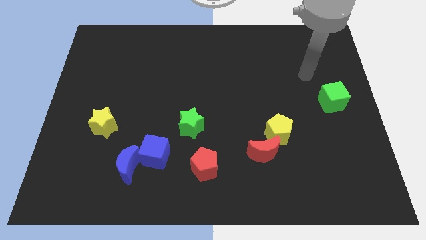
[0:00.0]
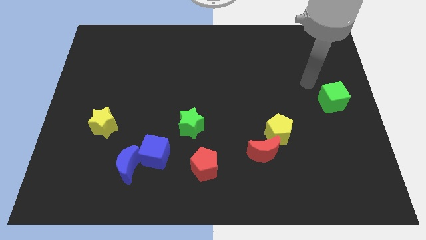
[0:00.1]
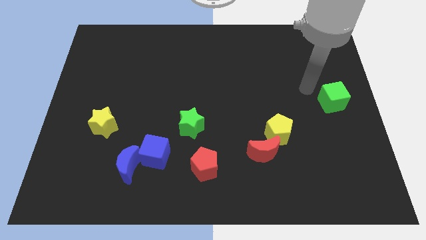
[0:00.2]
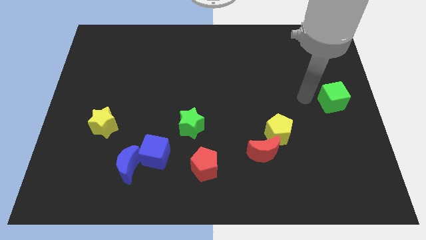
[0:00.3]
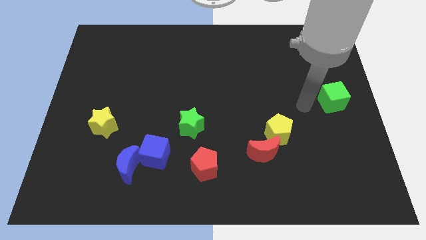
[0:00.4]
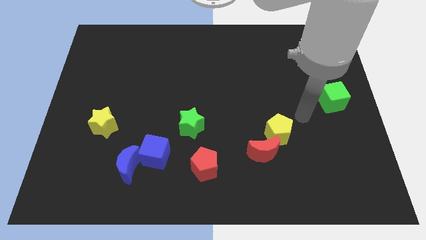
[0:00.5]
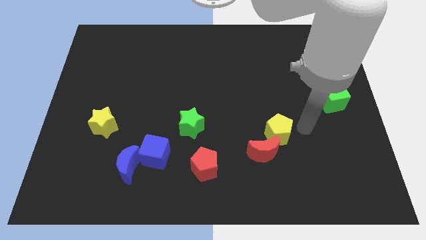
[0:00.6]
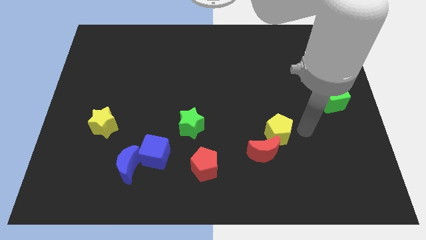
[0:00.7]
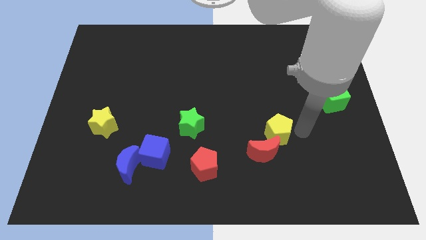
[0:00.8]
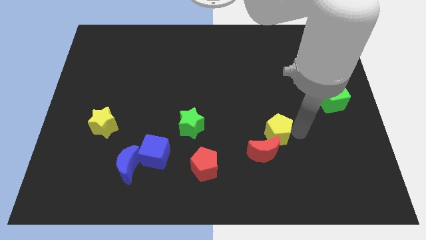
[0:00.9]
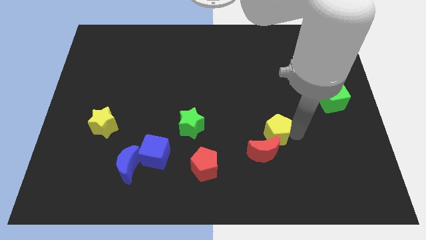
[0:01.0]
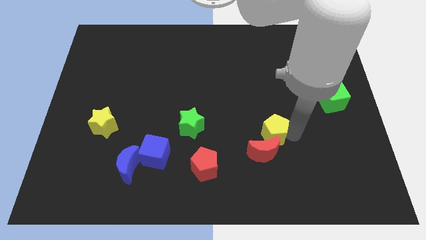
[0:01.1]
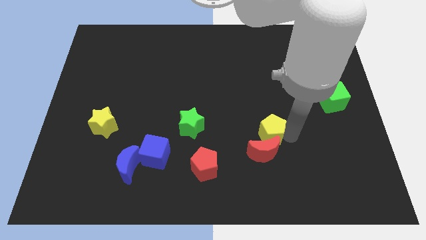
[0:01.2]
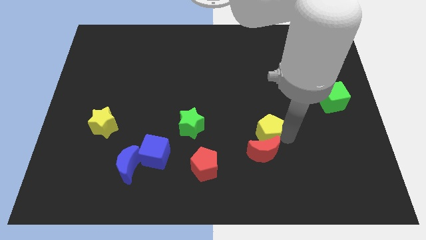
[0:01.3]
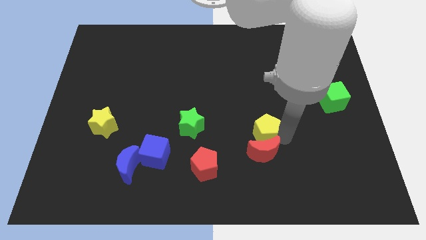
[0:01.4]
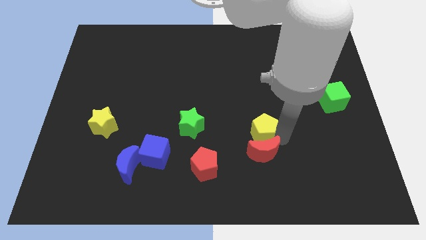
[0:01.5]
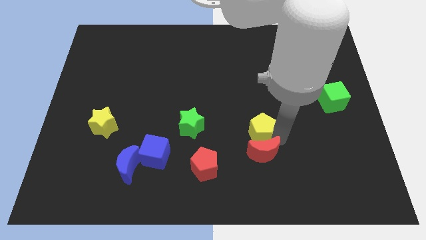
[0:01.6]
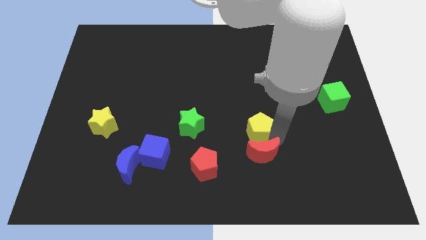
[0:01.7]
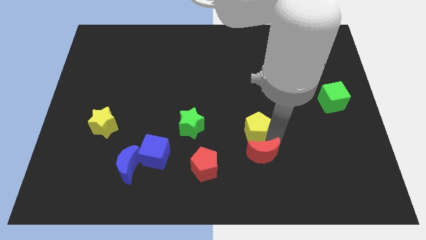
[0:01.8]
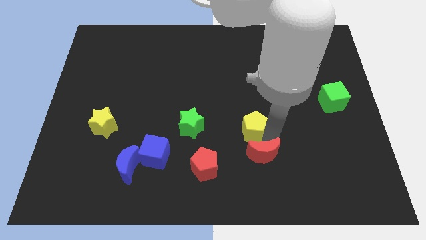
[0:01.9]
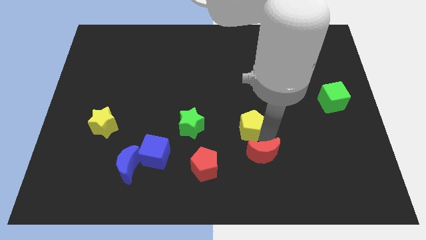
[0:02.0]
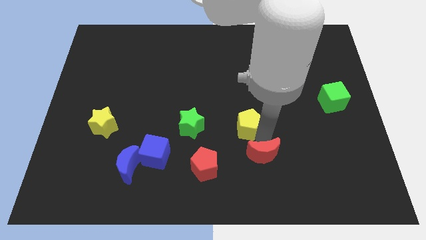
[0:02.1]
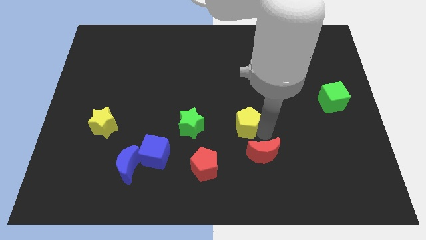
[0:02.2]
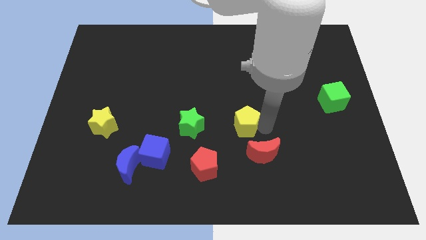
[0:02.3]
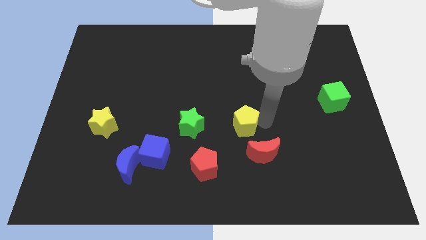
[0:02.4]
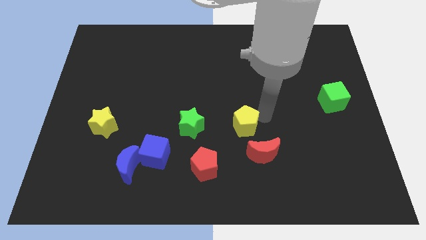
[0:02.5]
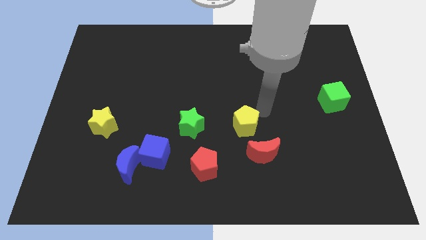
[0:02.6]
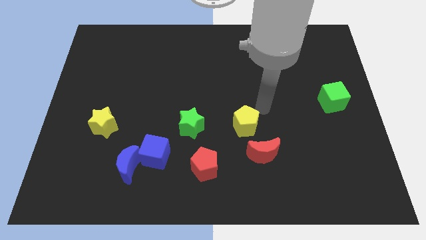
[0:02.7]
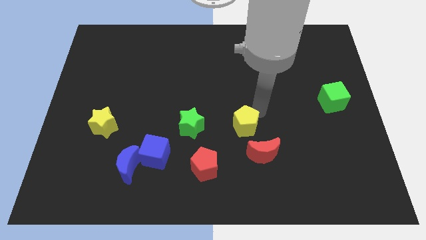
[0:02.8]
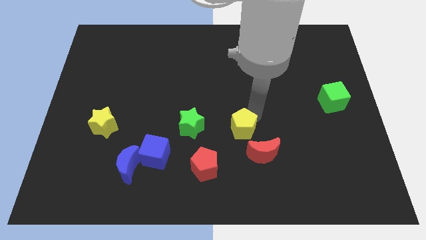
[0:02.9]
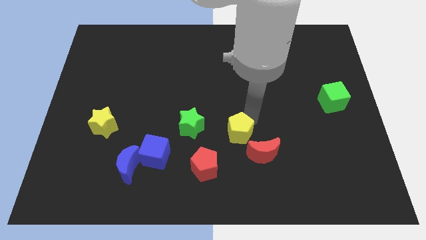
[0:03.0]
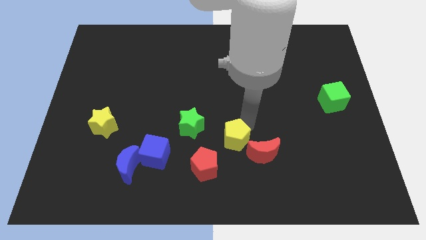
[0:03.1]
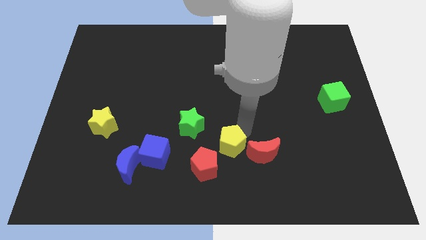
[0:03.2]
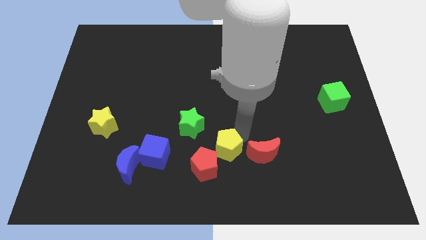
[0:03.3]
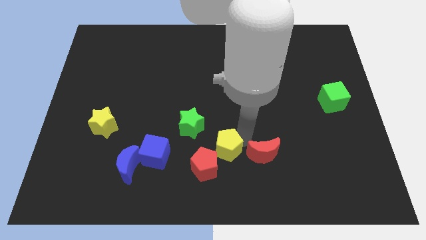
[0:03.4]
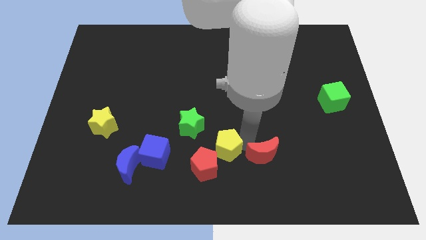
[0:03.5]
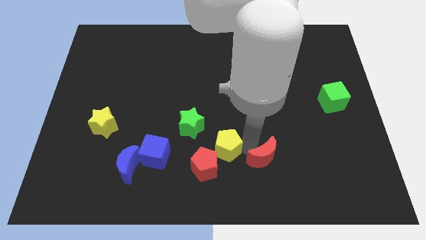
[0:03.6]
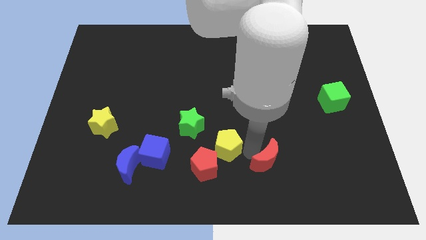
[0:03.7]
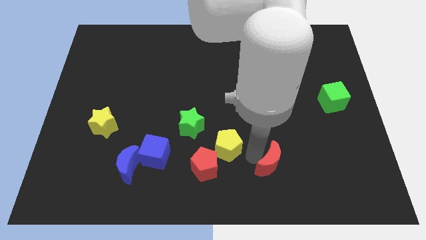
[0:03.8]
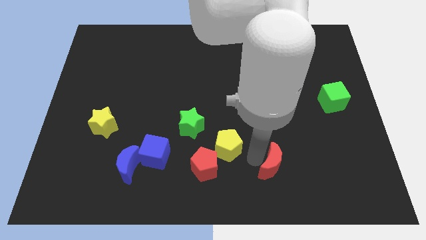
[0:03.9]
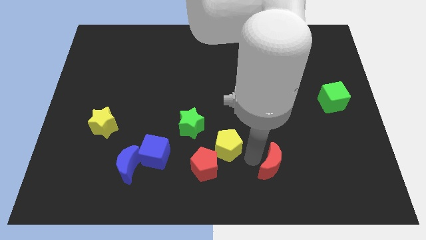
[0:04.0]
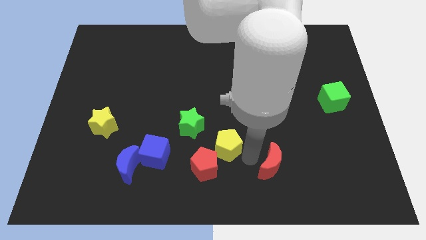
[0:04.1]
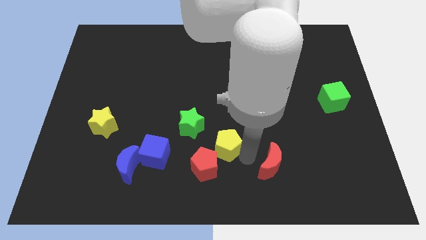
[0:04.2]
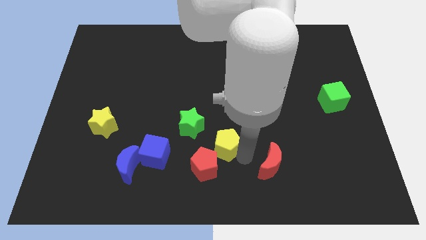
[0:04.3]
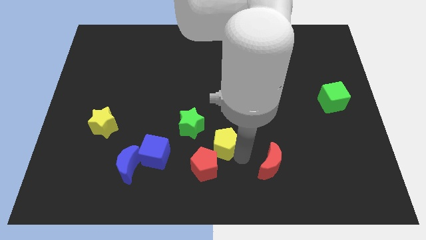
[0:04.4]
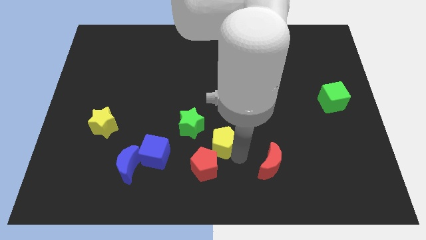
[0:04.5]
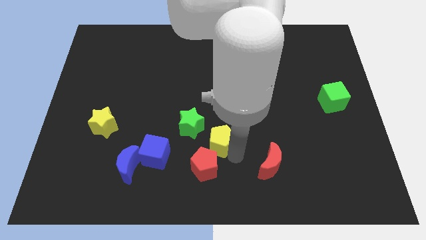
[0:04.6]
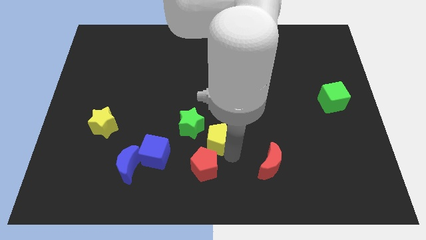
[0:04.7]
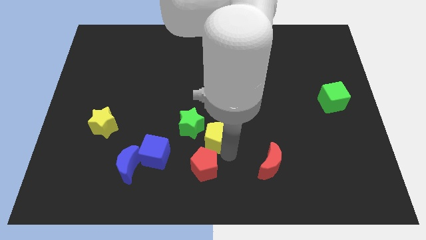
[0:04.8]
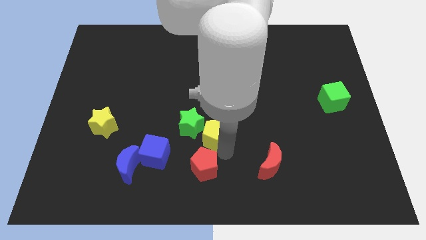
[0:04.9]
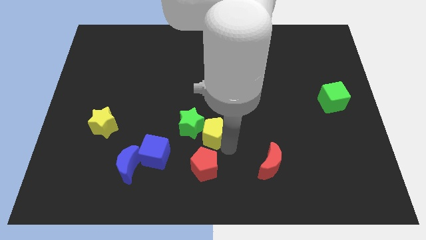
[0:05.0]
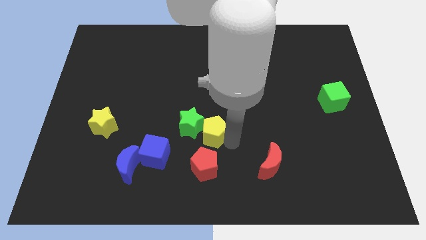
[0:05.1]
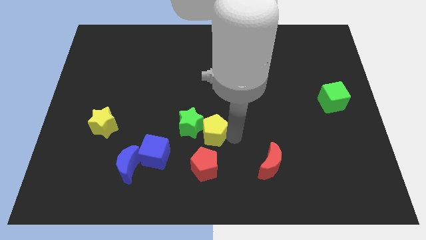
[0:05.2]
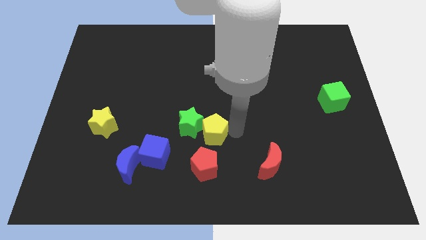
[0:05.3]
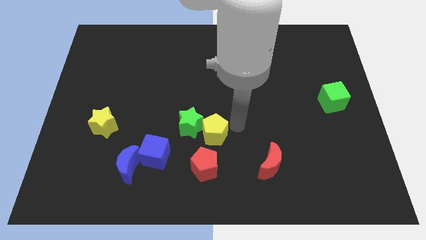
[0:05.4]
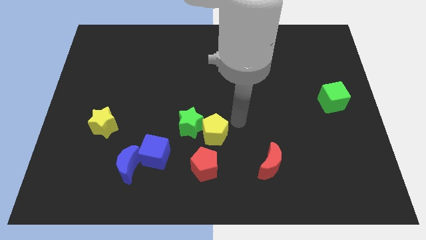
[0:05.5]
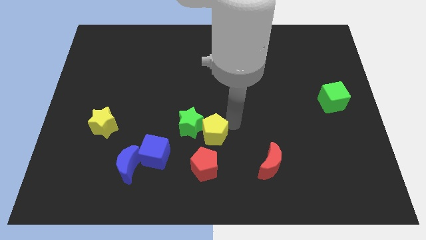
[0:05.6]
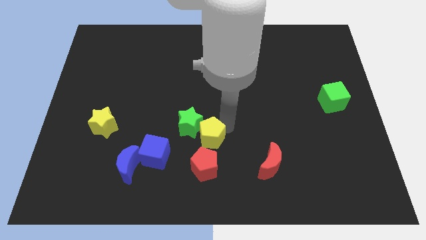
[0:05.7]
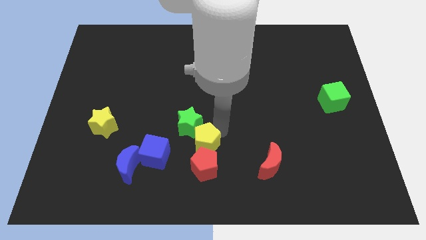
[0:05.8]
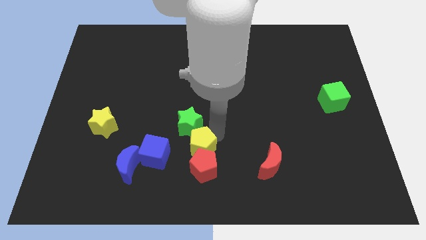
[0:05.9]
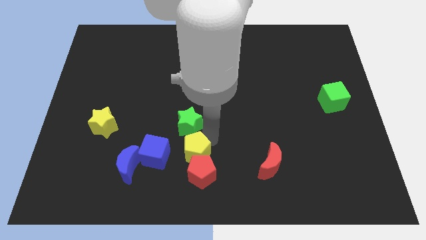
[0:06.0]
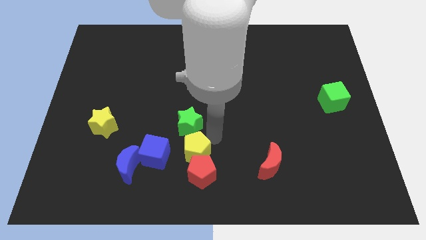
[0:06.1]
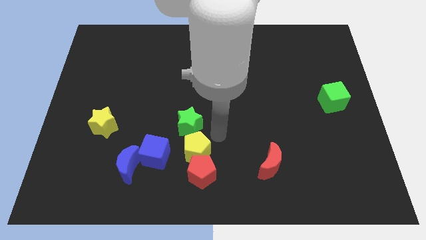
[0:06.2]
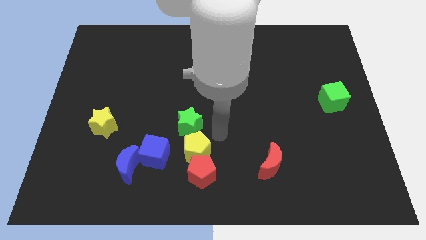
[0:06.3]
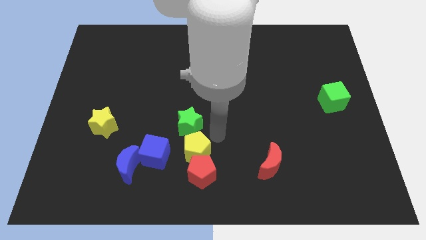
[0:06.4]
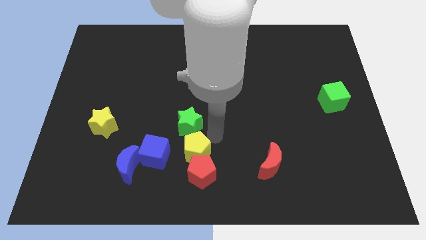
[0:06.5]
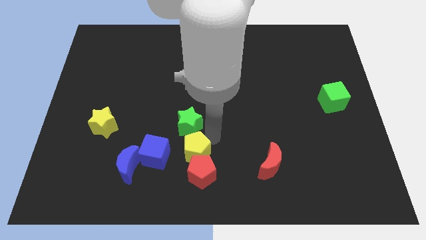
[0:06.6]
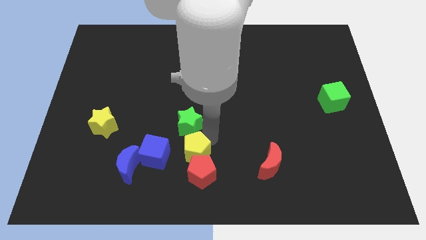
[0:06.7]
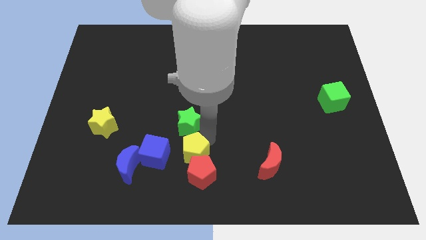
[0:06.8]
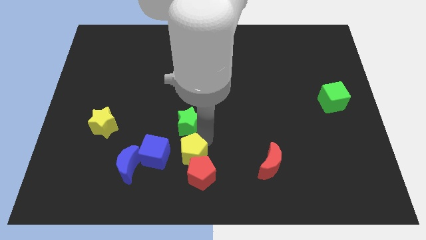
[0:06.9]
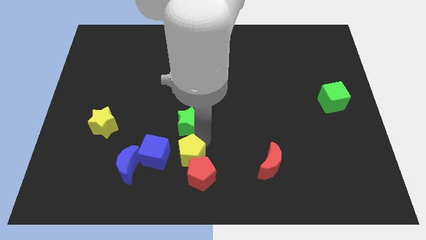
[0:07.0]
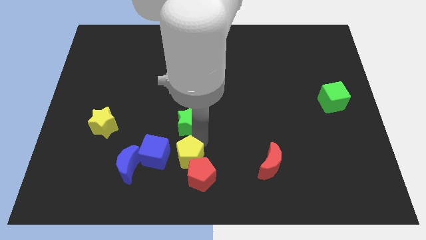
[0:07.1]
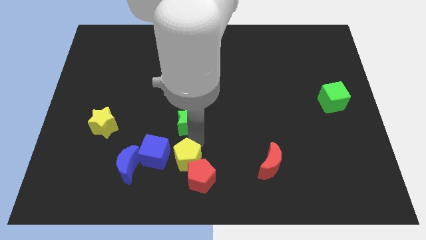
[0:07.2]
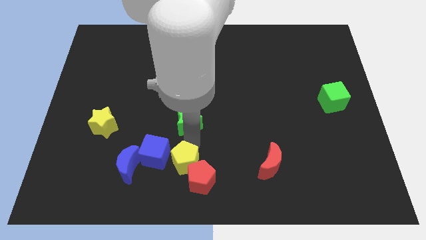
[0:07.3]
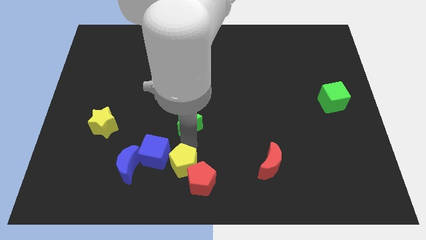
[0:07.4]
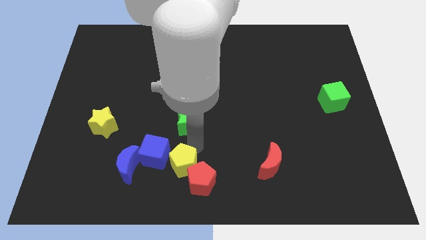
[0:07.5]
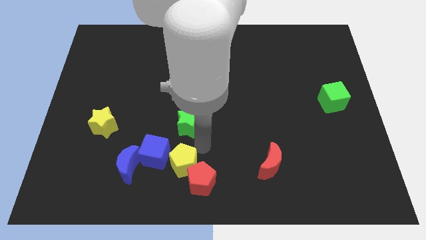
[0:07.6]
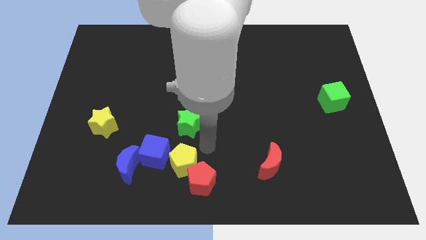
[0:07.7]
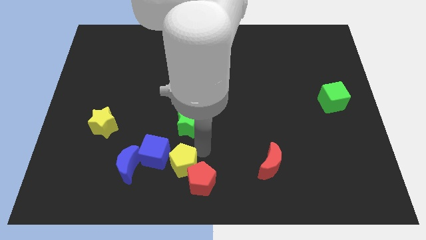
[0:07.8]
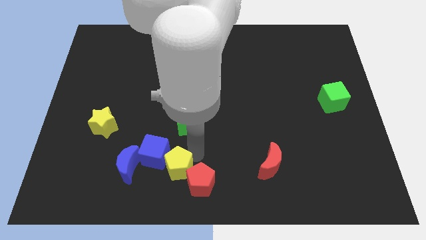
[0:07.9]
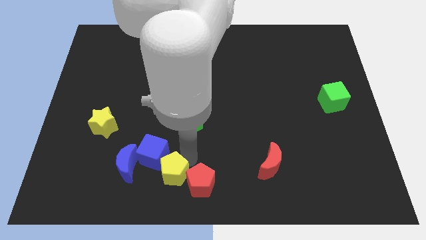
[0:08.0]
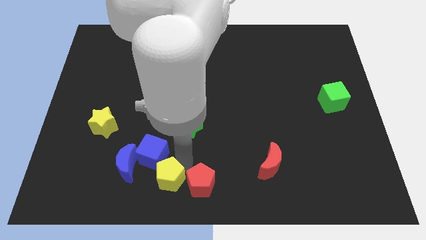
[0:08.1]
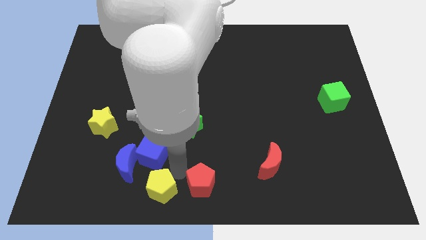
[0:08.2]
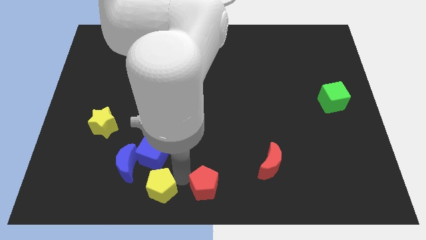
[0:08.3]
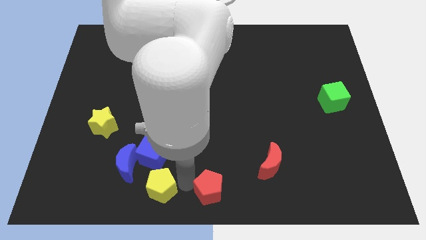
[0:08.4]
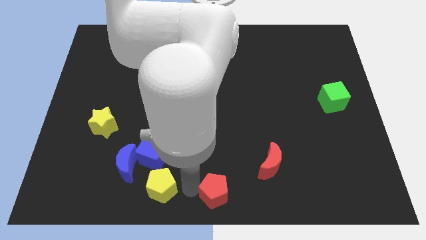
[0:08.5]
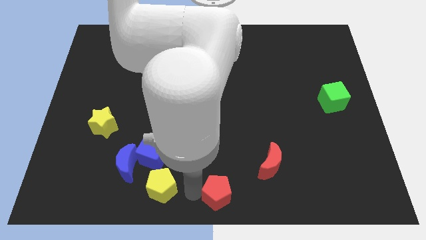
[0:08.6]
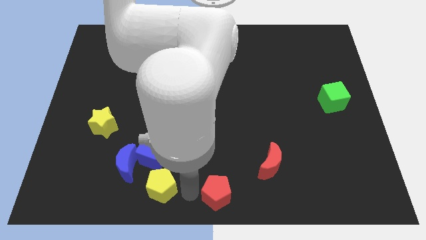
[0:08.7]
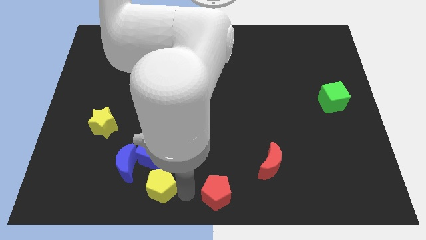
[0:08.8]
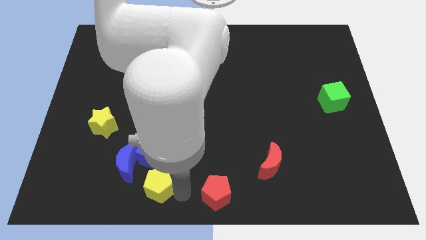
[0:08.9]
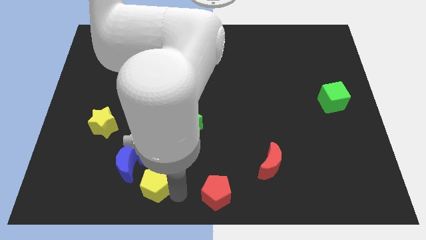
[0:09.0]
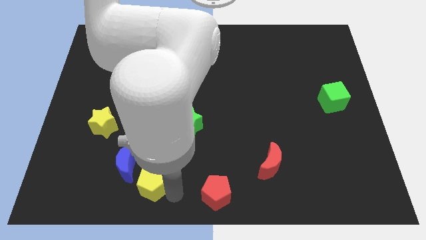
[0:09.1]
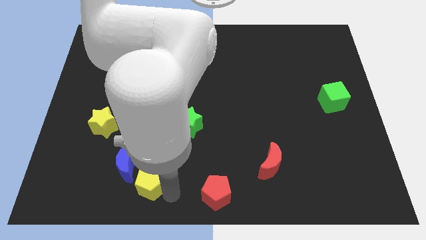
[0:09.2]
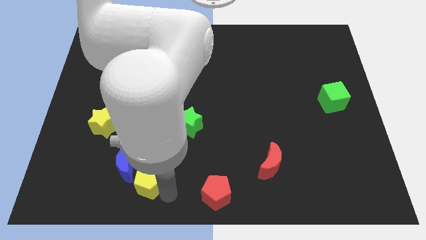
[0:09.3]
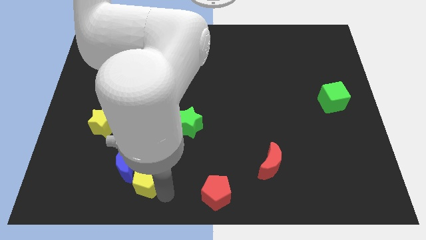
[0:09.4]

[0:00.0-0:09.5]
push the yellow pentagon next to the blue moon
